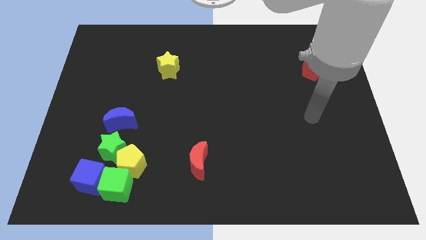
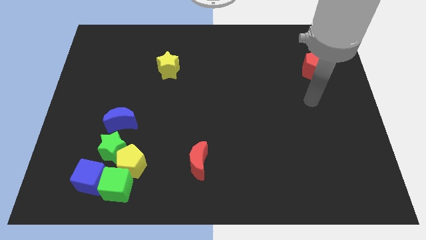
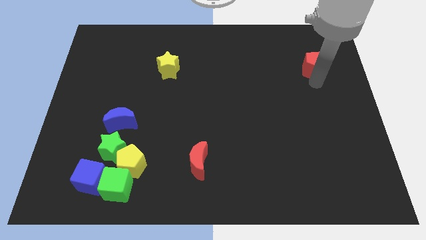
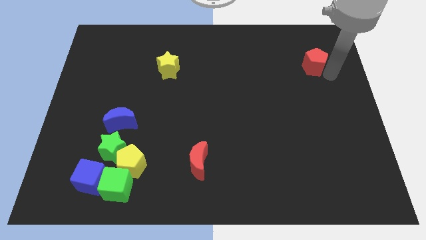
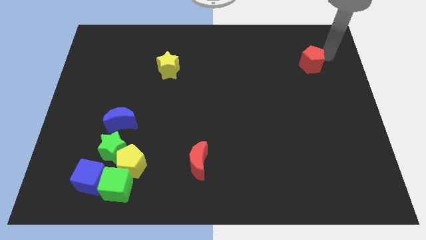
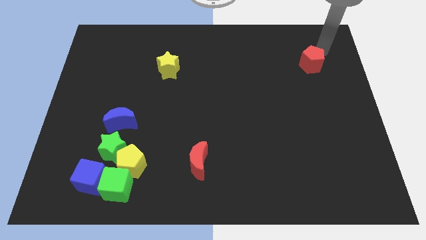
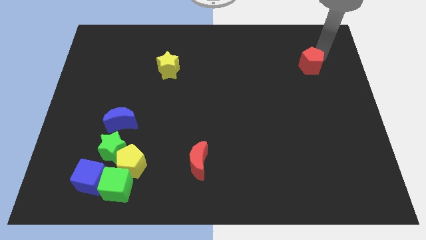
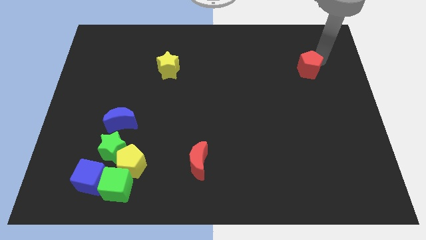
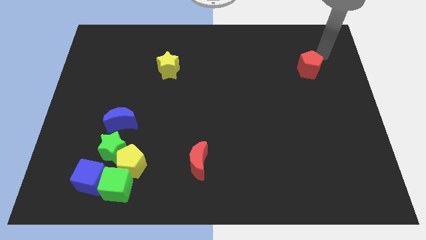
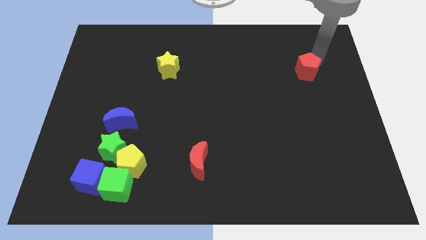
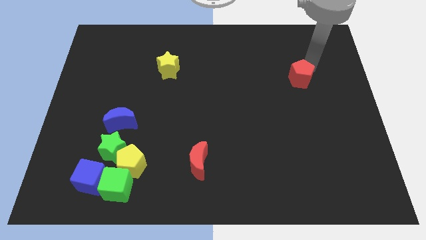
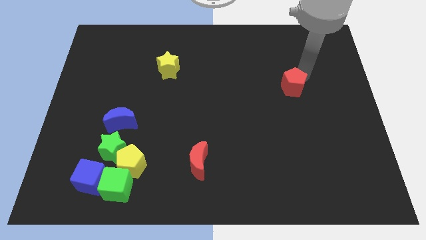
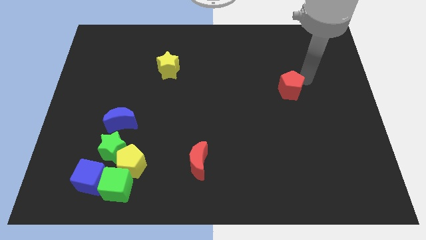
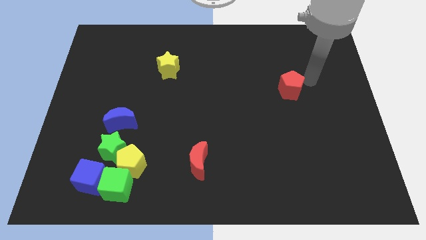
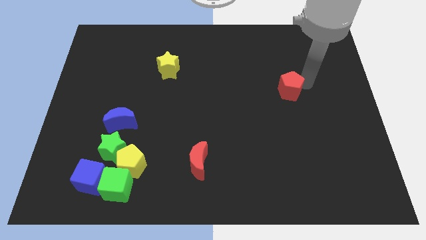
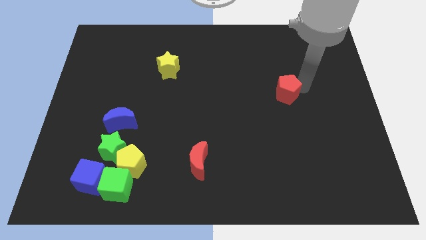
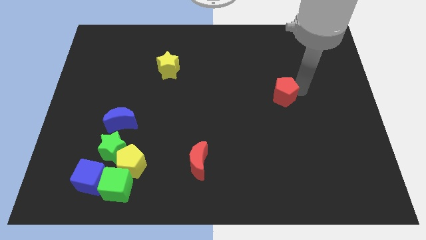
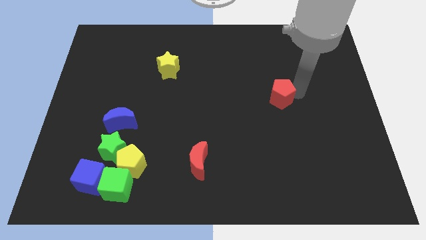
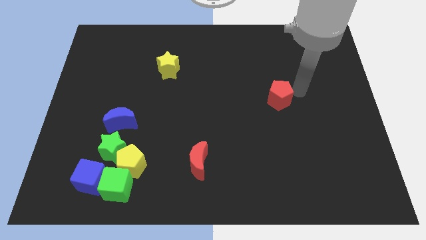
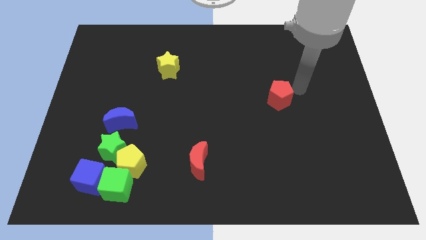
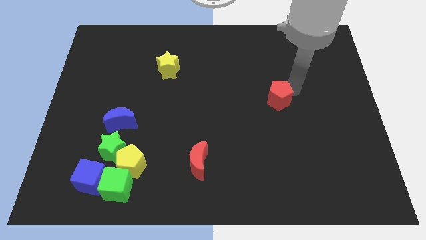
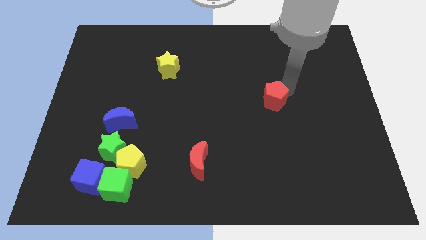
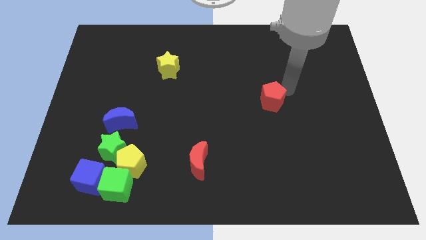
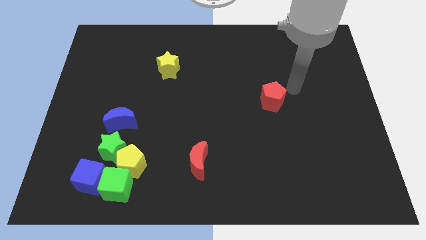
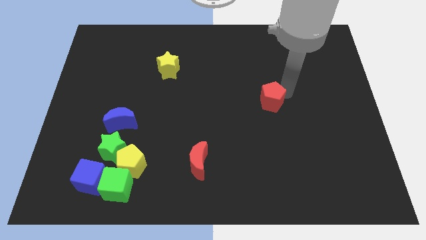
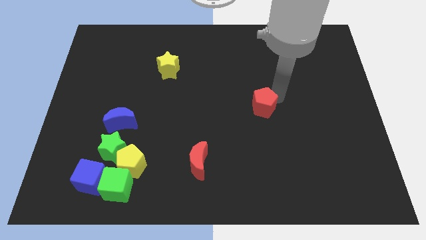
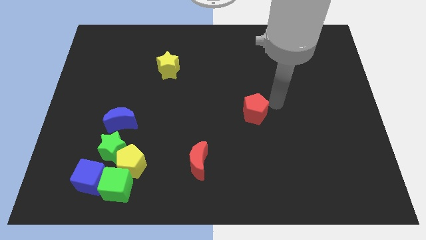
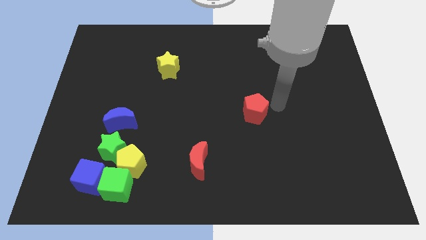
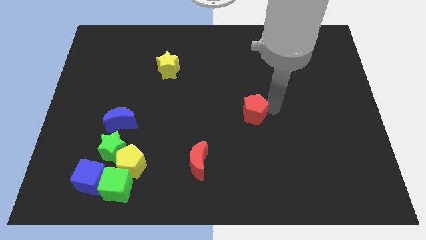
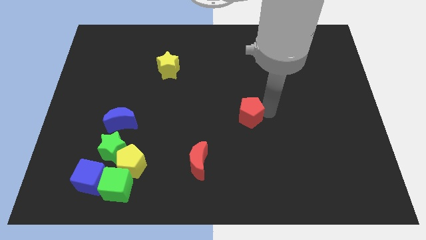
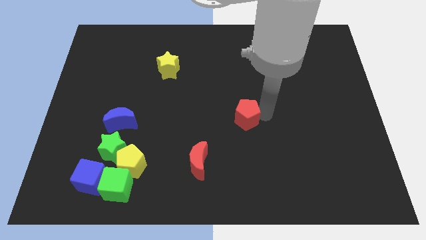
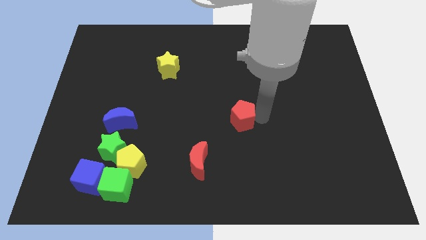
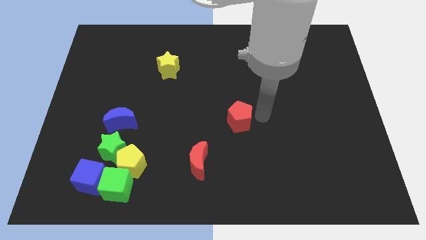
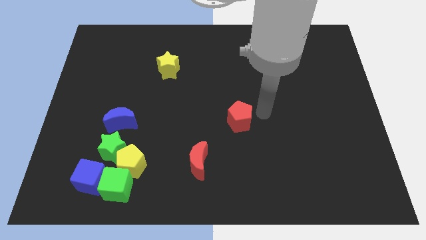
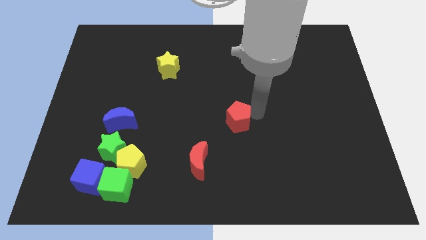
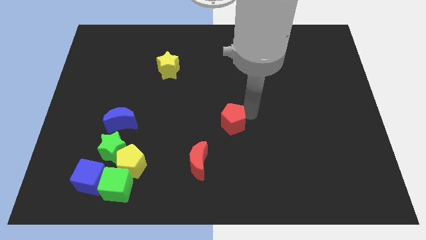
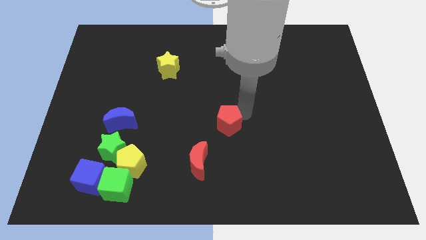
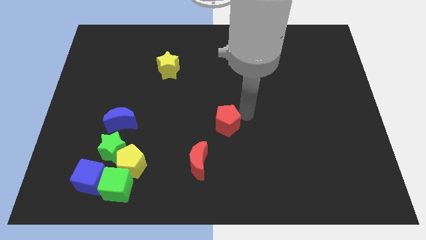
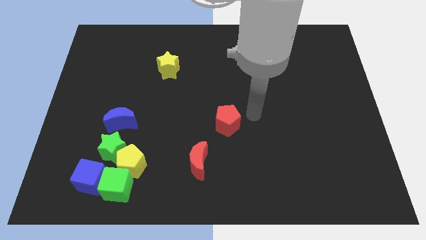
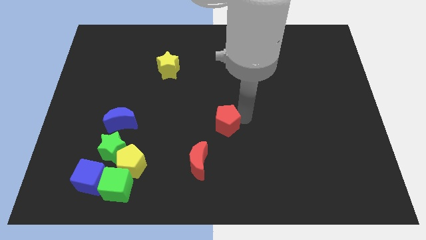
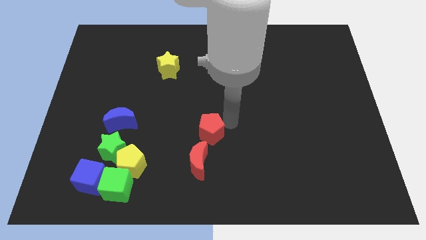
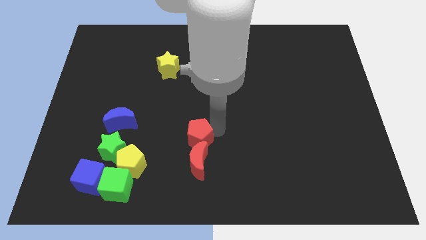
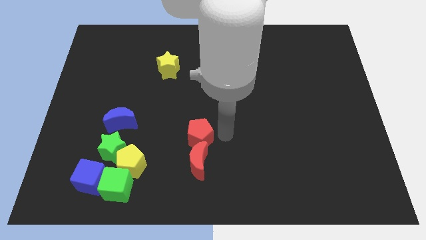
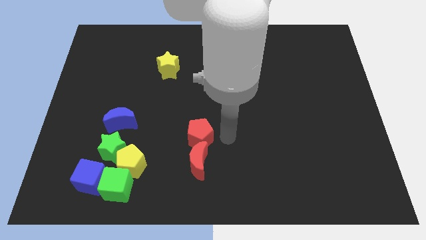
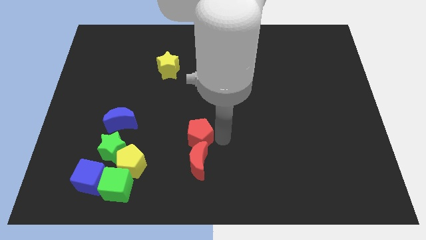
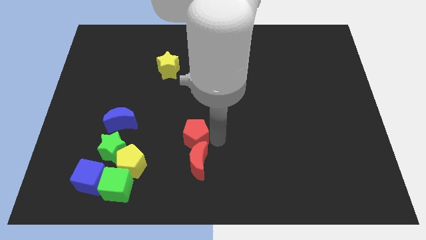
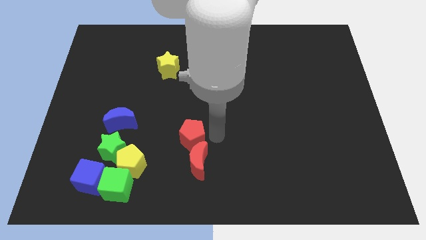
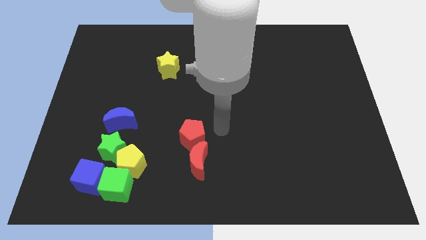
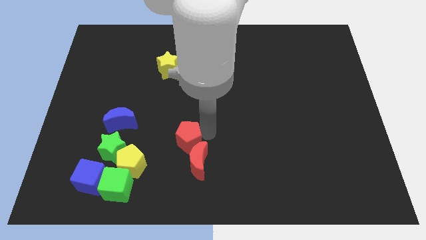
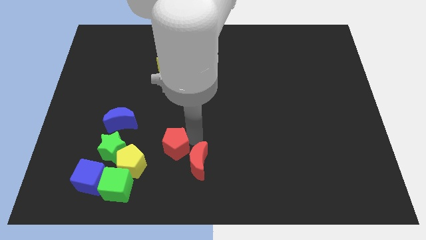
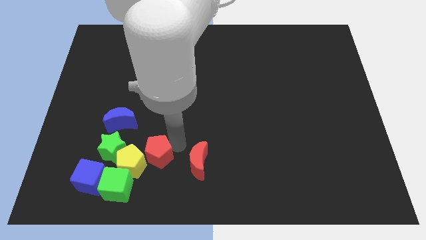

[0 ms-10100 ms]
move the red pentagon towards the yellow pentagon

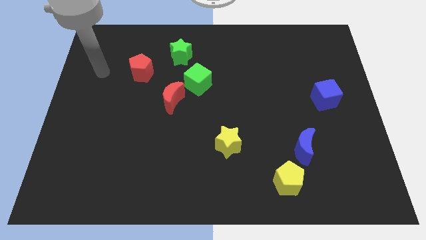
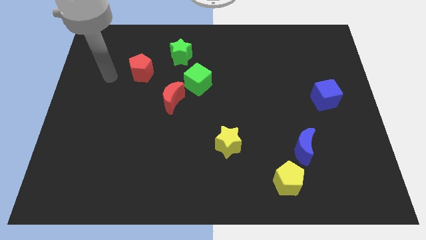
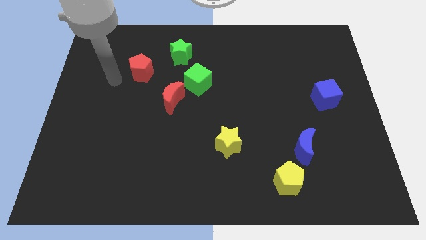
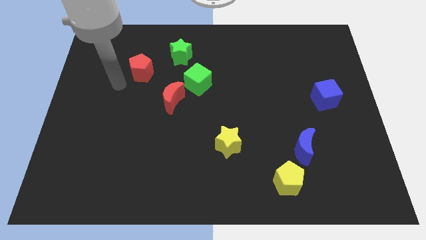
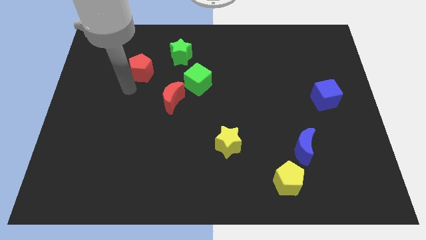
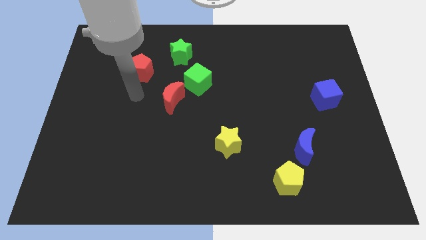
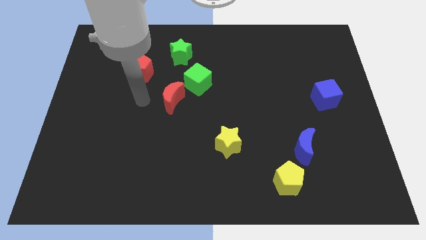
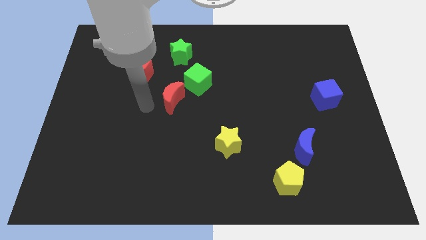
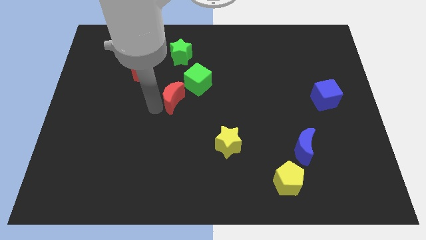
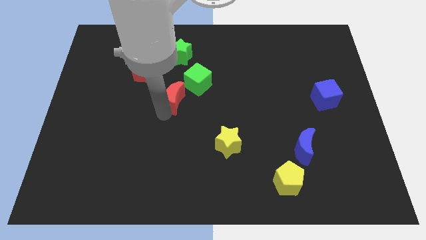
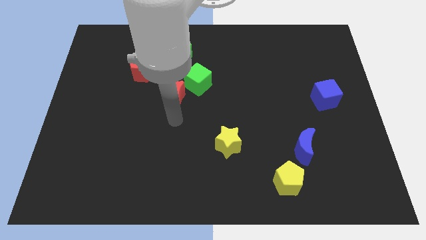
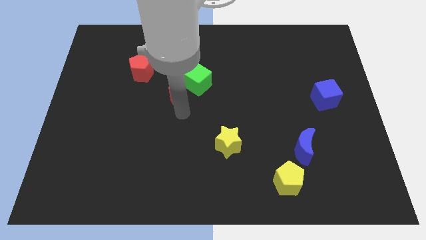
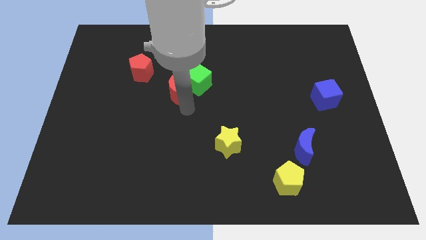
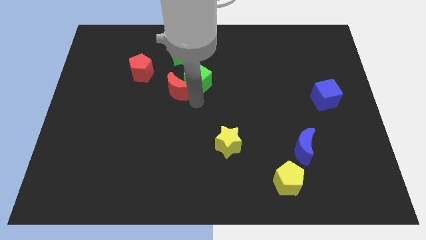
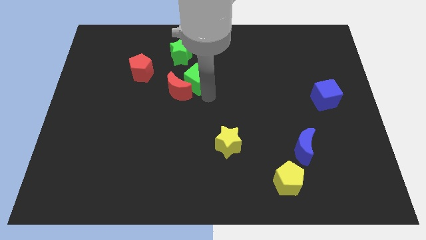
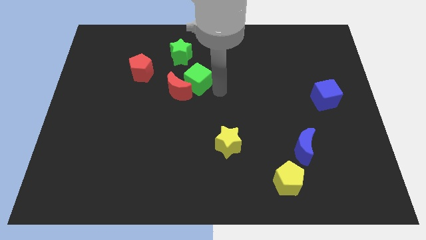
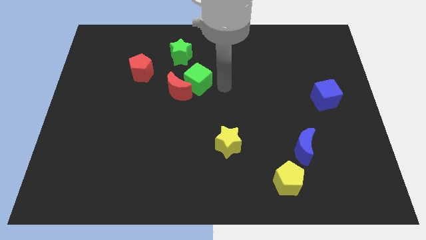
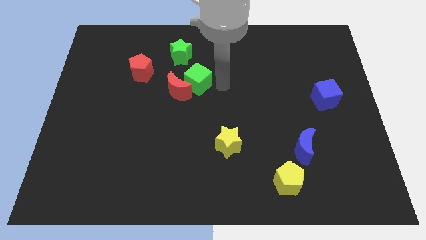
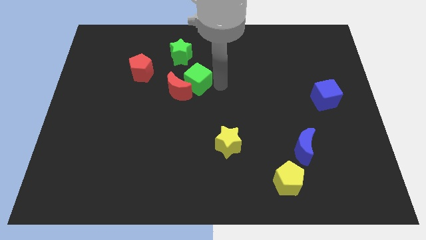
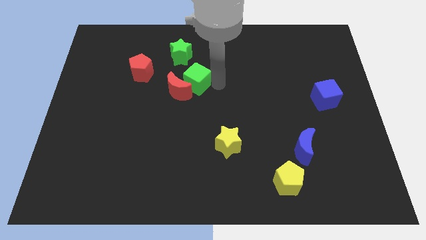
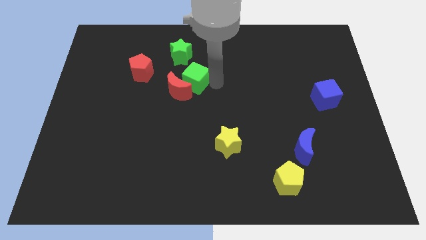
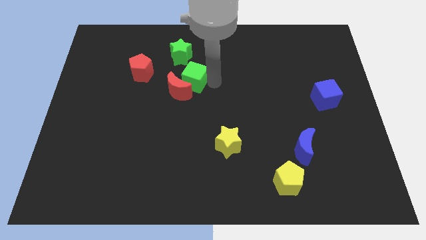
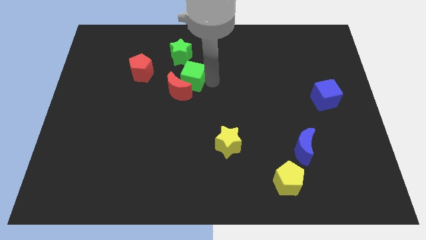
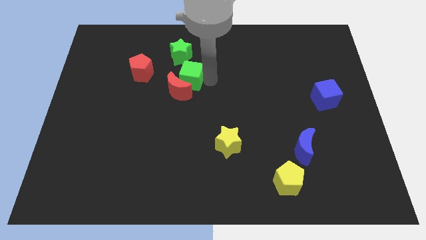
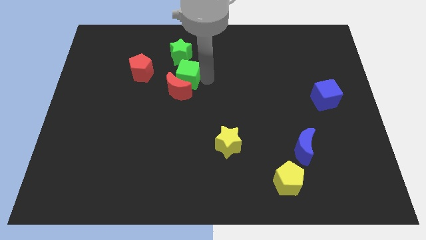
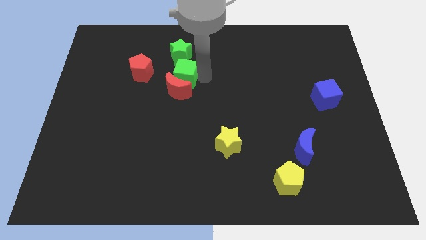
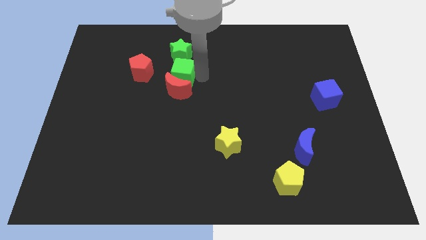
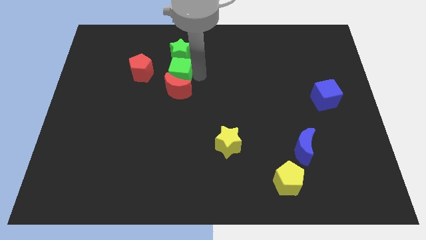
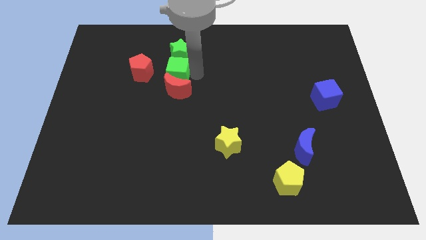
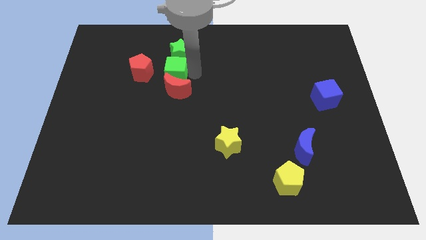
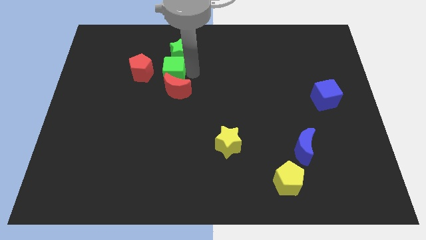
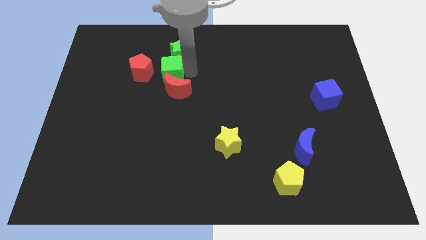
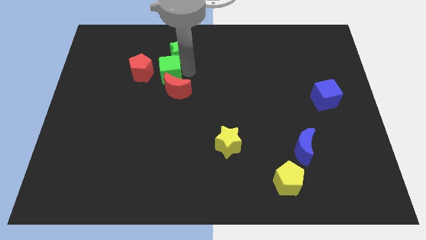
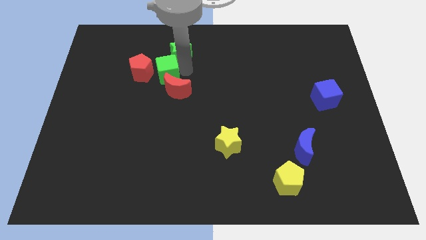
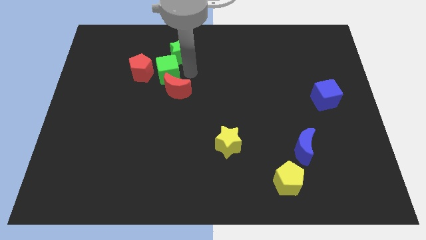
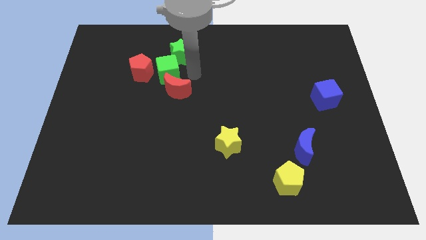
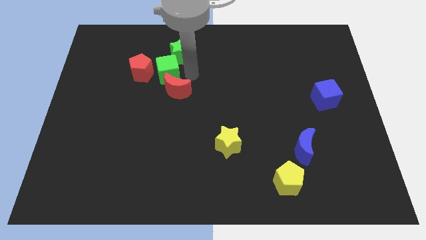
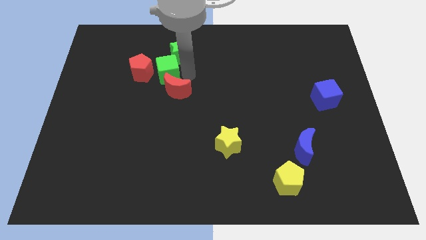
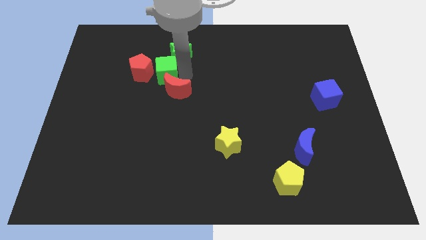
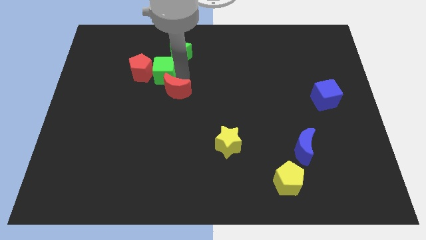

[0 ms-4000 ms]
put the green cube close to the red pentagon
